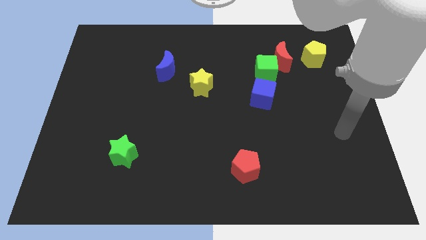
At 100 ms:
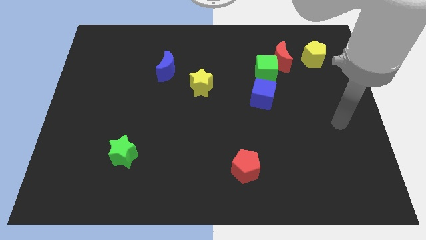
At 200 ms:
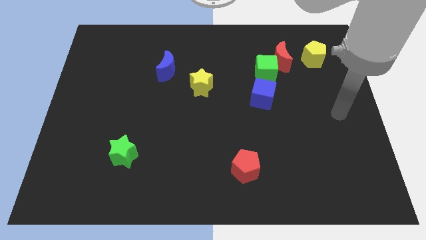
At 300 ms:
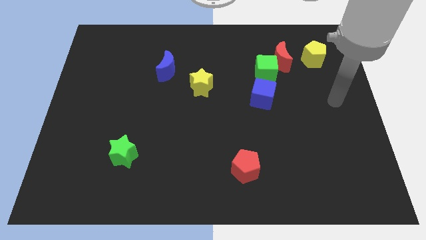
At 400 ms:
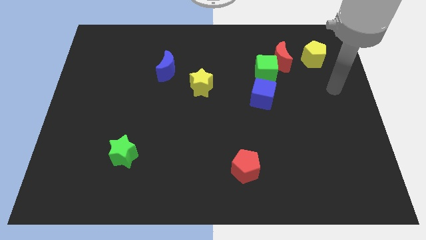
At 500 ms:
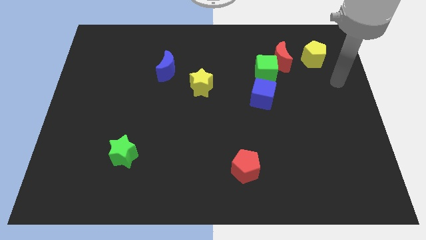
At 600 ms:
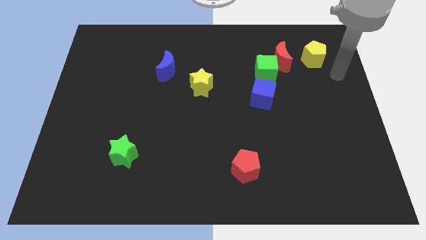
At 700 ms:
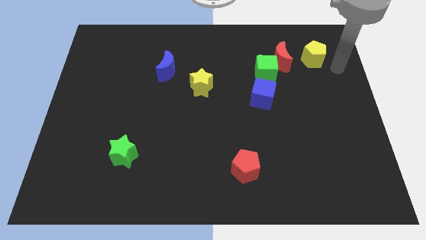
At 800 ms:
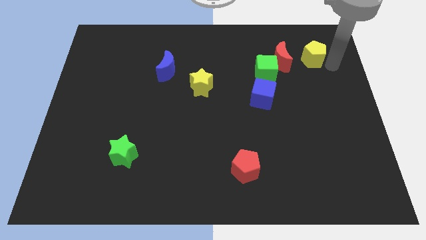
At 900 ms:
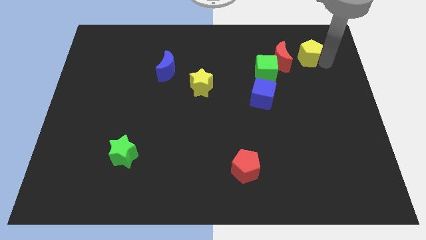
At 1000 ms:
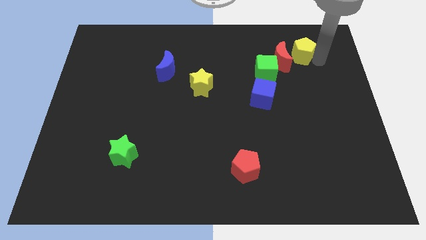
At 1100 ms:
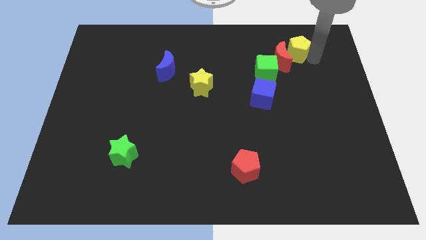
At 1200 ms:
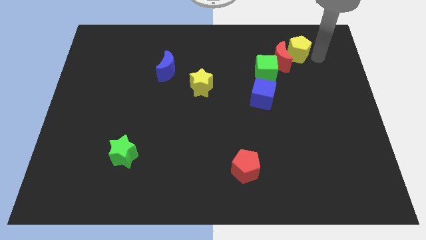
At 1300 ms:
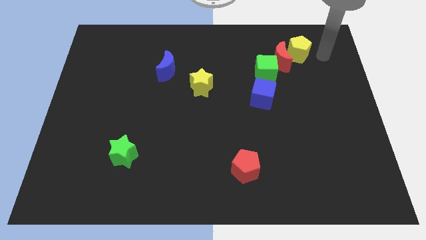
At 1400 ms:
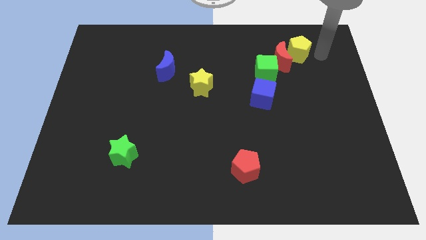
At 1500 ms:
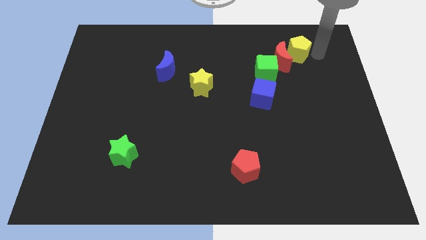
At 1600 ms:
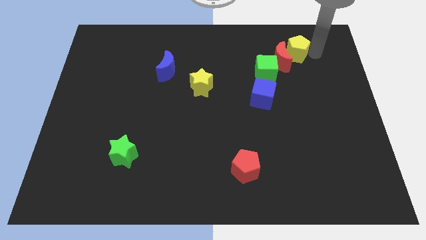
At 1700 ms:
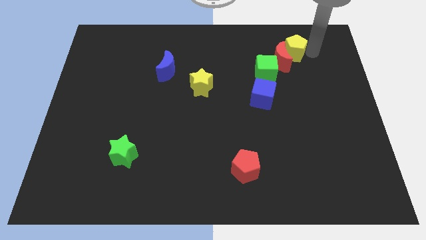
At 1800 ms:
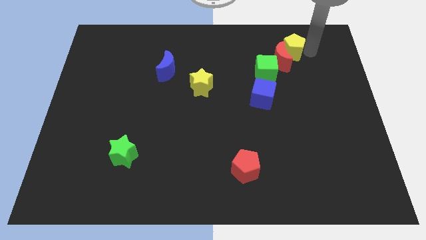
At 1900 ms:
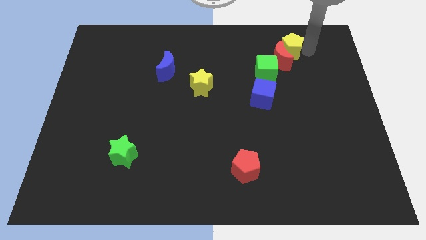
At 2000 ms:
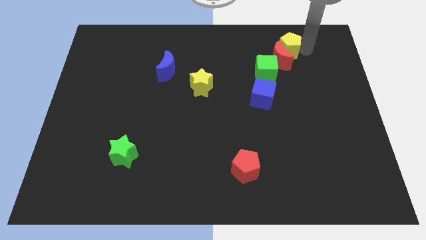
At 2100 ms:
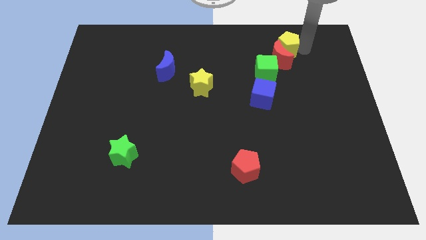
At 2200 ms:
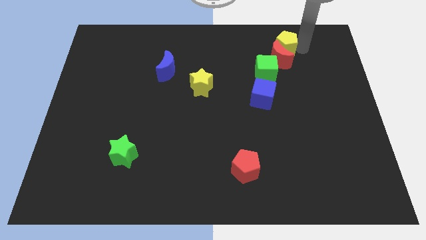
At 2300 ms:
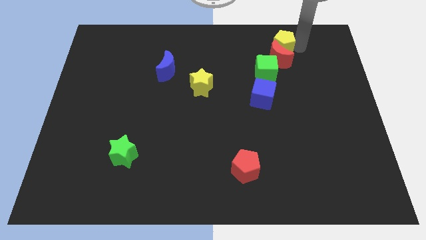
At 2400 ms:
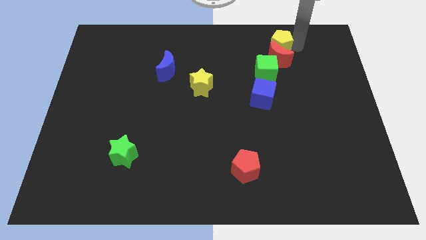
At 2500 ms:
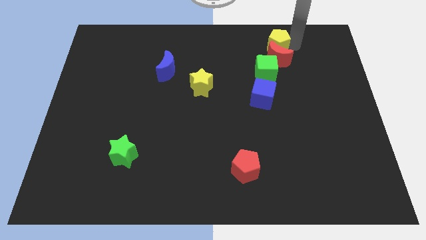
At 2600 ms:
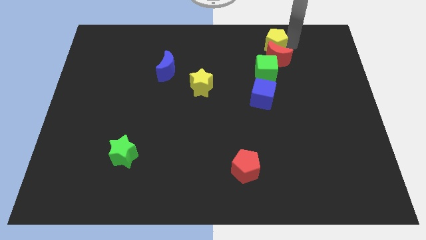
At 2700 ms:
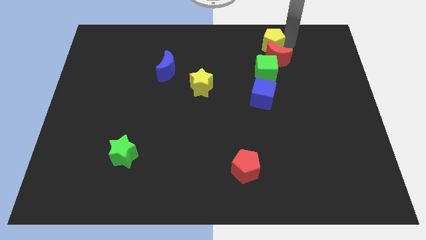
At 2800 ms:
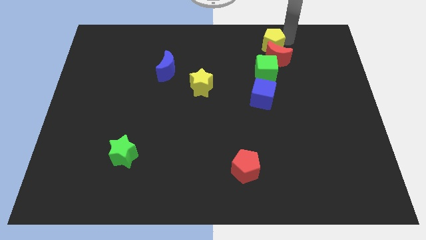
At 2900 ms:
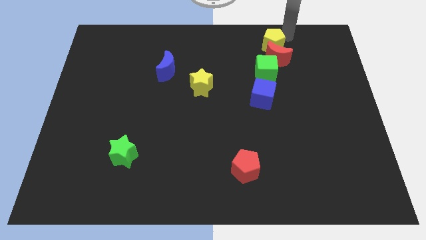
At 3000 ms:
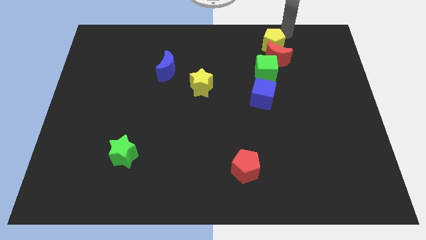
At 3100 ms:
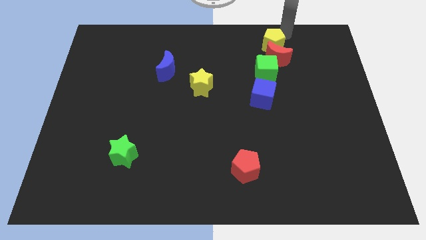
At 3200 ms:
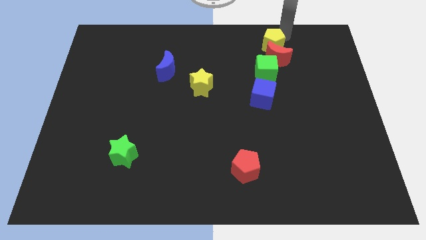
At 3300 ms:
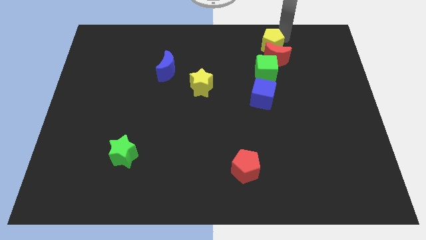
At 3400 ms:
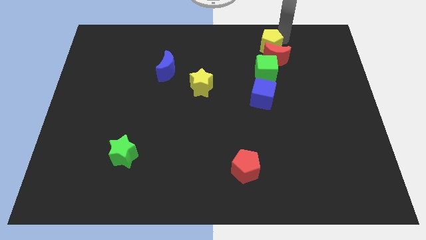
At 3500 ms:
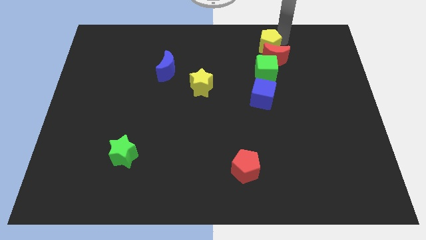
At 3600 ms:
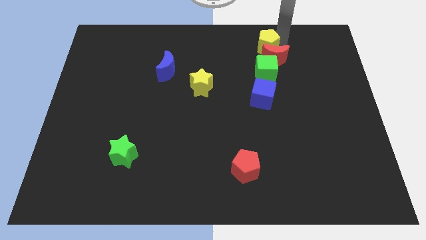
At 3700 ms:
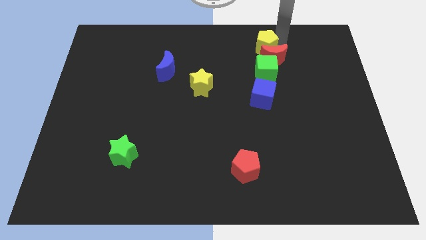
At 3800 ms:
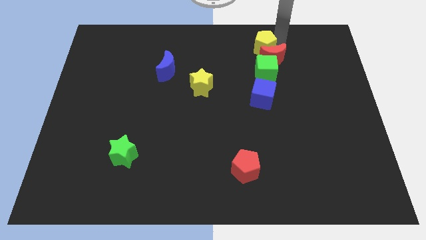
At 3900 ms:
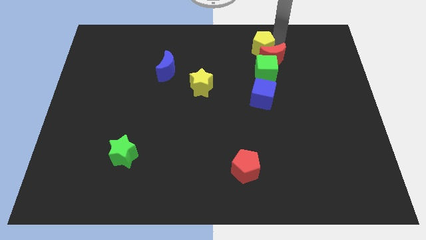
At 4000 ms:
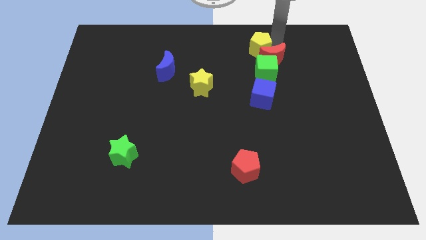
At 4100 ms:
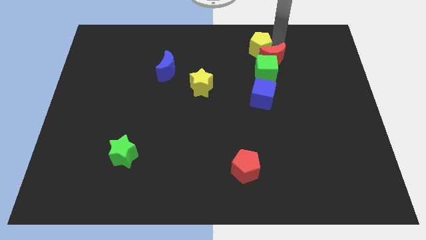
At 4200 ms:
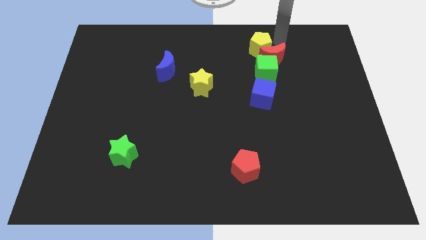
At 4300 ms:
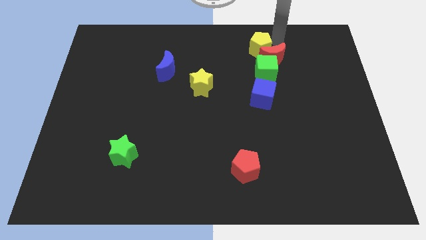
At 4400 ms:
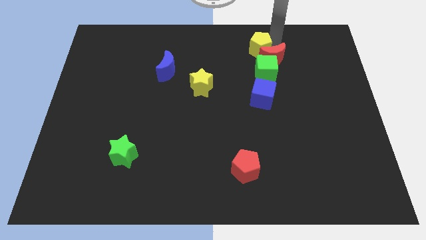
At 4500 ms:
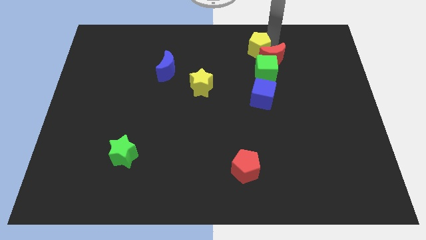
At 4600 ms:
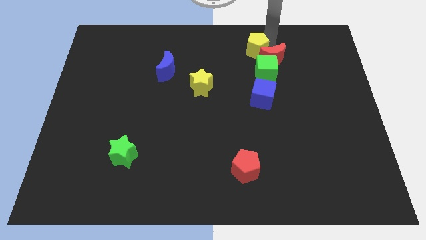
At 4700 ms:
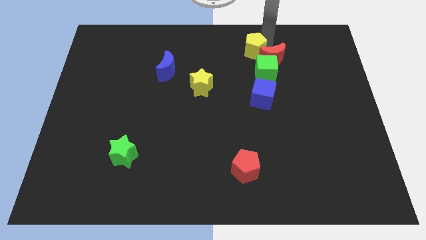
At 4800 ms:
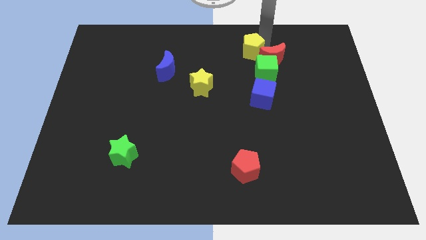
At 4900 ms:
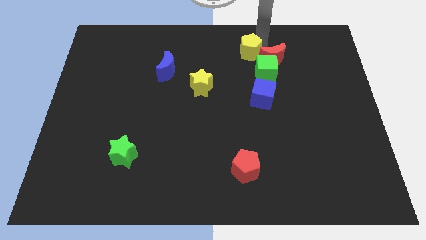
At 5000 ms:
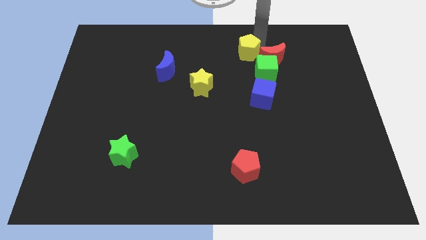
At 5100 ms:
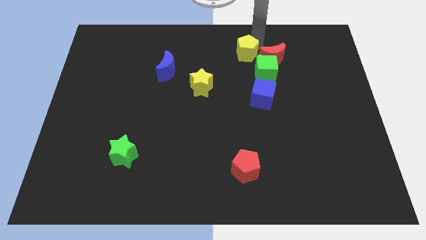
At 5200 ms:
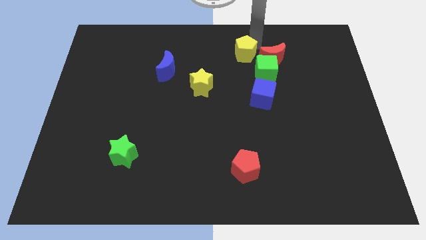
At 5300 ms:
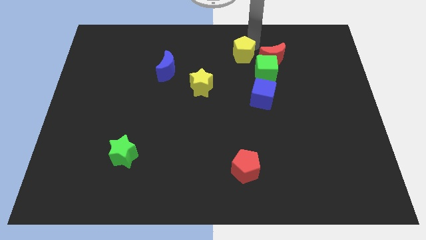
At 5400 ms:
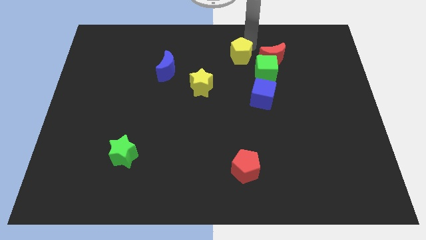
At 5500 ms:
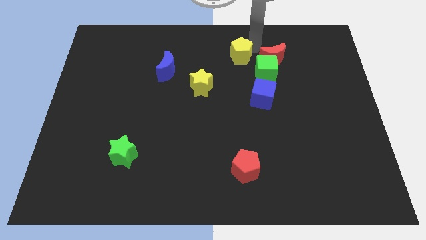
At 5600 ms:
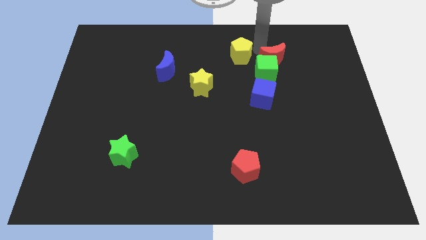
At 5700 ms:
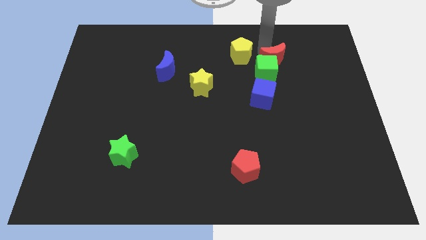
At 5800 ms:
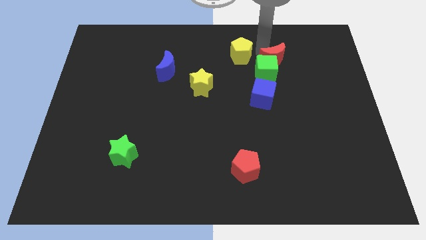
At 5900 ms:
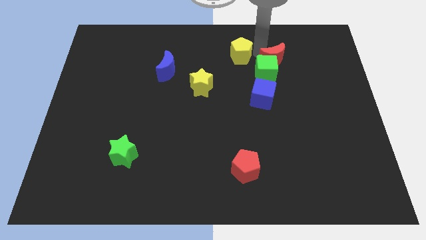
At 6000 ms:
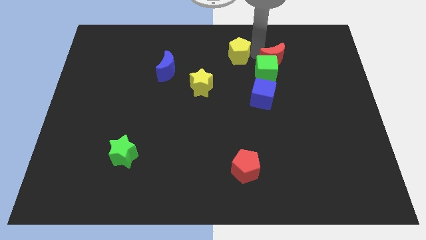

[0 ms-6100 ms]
slide the yellow pentagon left

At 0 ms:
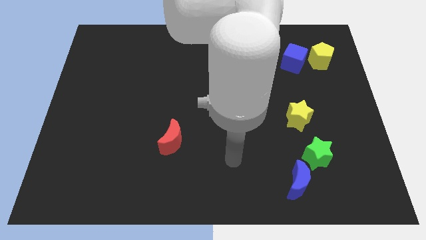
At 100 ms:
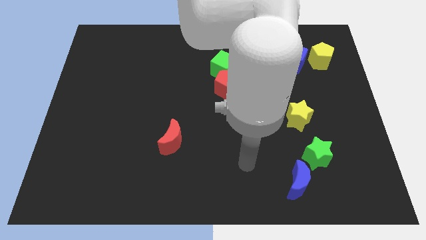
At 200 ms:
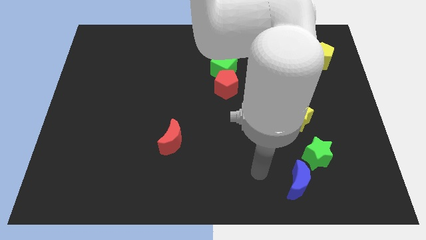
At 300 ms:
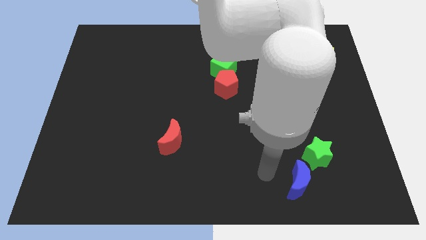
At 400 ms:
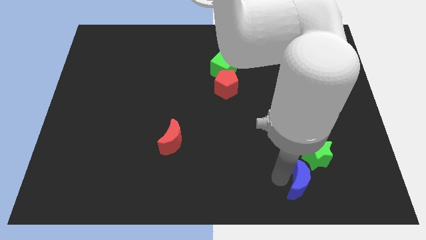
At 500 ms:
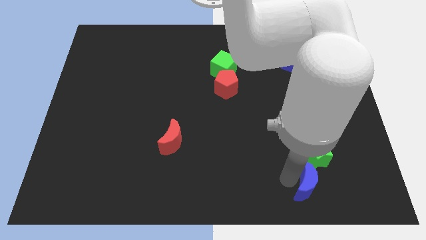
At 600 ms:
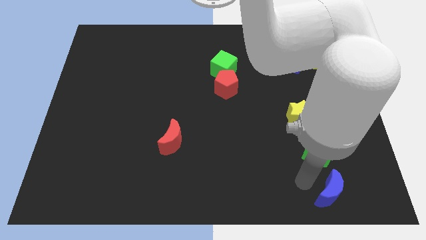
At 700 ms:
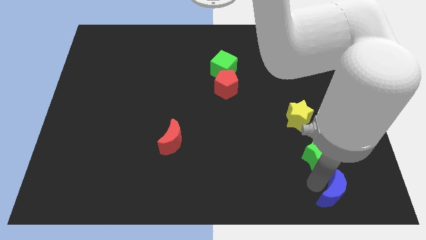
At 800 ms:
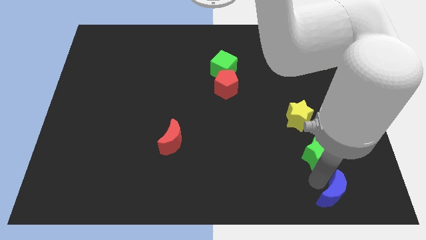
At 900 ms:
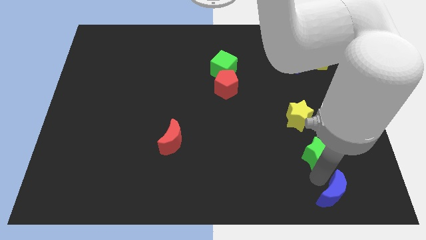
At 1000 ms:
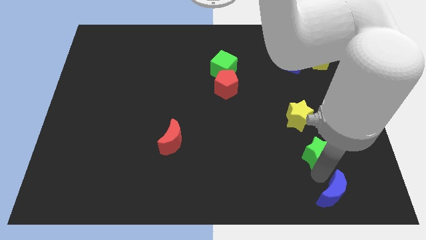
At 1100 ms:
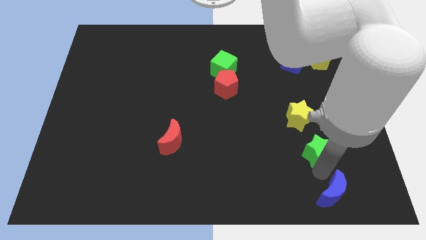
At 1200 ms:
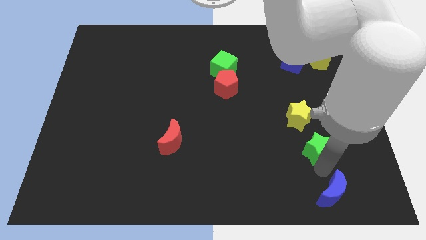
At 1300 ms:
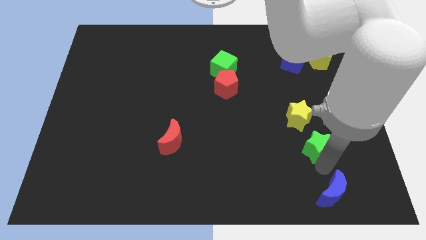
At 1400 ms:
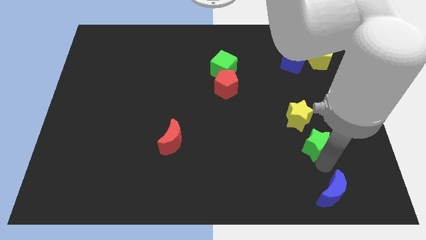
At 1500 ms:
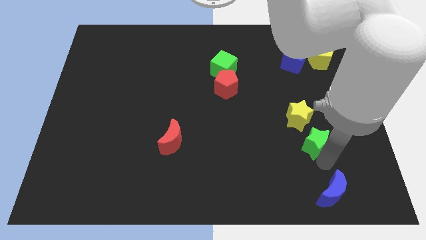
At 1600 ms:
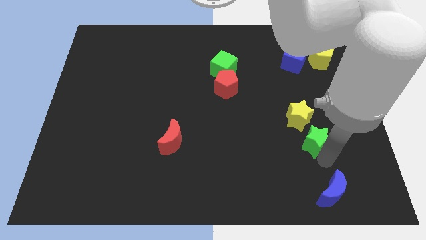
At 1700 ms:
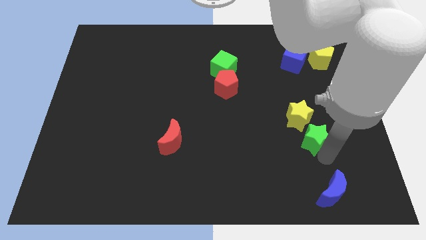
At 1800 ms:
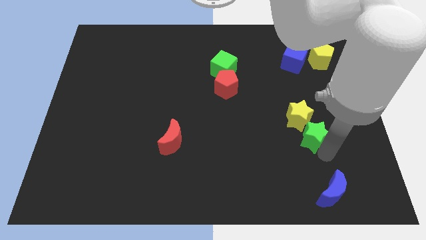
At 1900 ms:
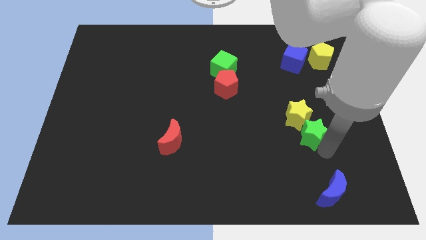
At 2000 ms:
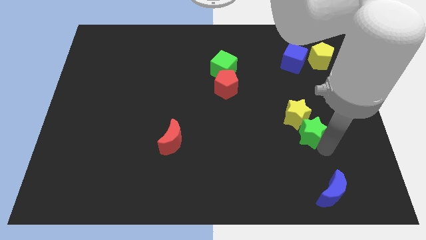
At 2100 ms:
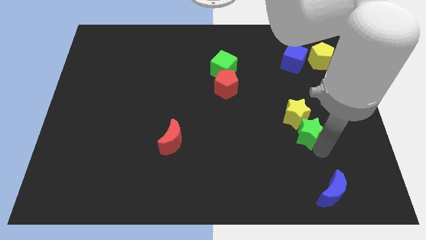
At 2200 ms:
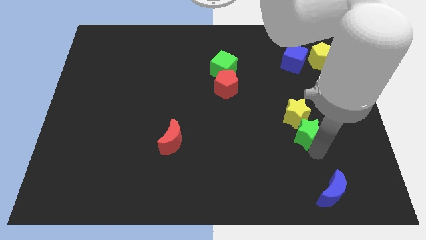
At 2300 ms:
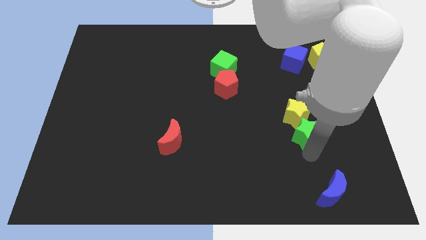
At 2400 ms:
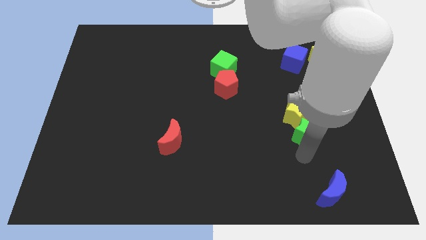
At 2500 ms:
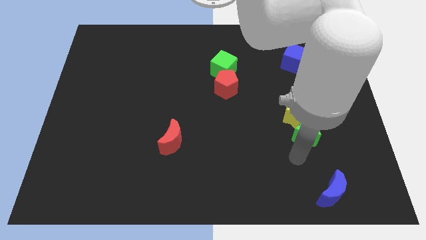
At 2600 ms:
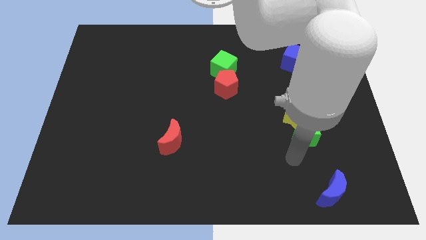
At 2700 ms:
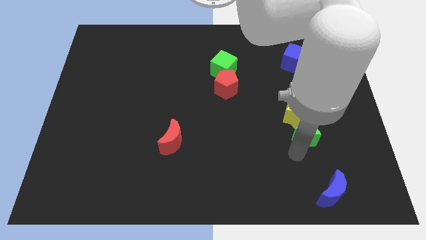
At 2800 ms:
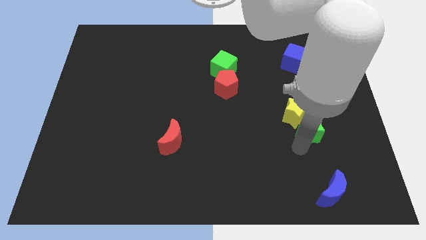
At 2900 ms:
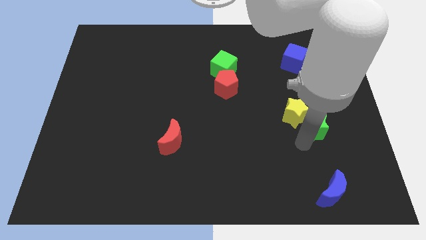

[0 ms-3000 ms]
push the green star up a little bit
